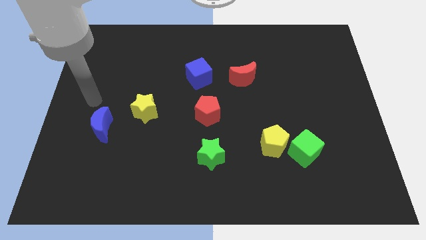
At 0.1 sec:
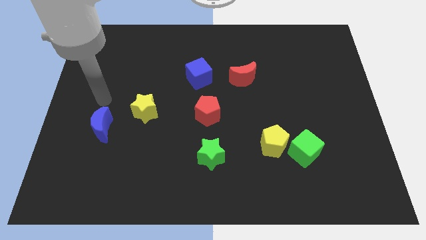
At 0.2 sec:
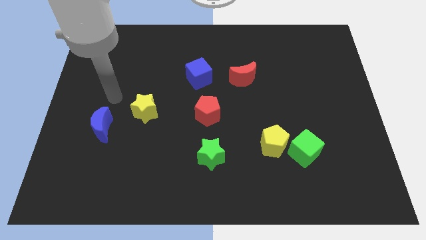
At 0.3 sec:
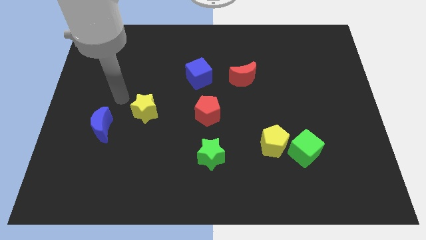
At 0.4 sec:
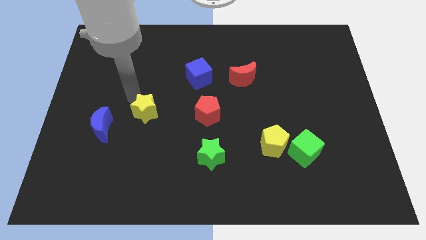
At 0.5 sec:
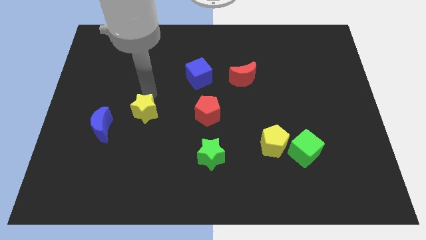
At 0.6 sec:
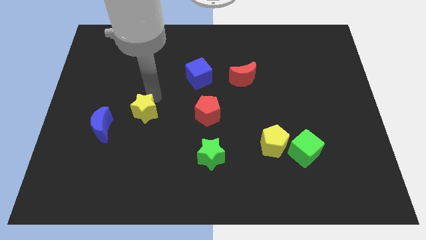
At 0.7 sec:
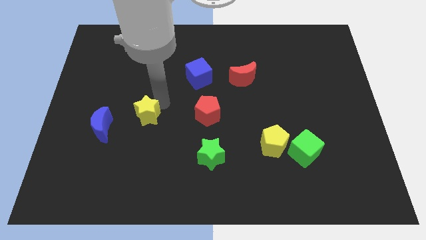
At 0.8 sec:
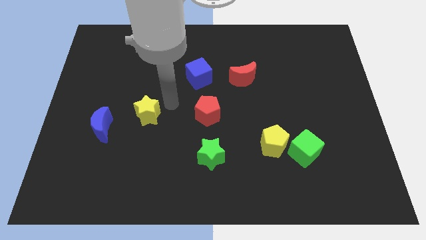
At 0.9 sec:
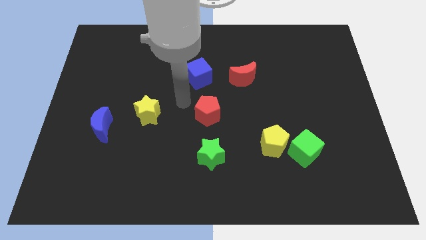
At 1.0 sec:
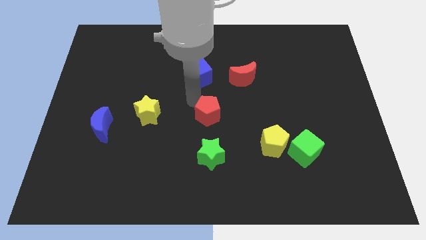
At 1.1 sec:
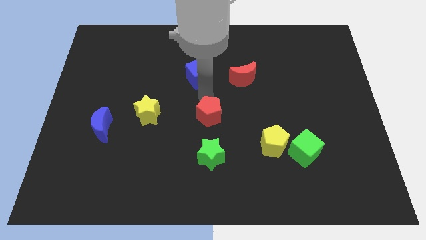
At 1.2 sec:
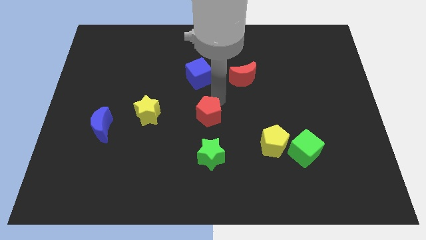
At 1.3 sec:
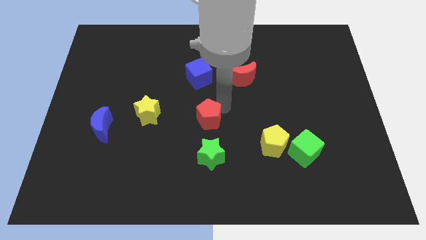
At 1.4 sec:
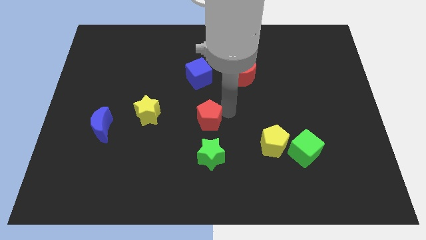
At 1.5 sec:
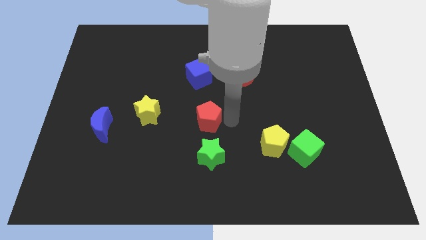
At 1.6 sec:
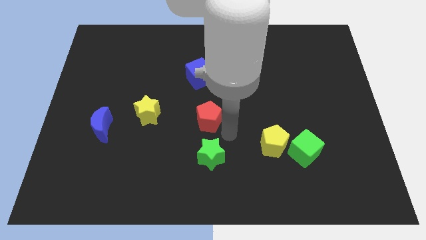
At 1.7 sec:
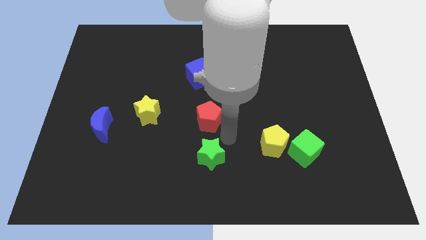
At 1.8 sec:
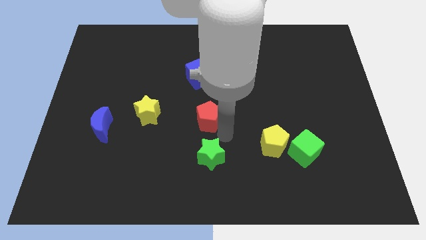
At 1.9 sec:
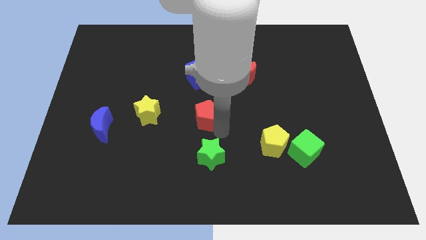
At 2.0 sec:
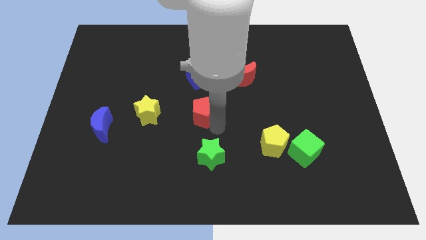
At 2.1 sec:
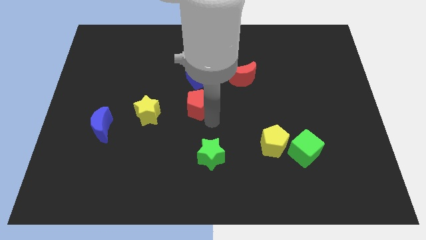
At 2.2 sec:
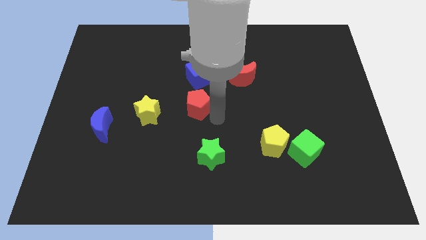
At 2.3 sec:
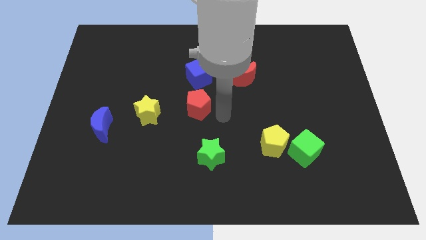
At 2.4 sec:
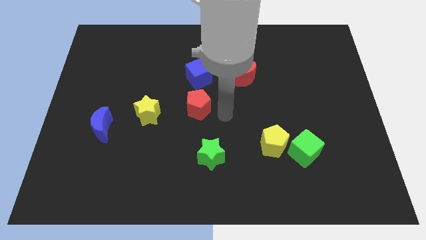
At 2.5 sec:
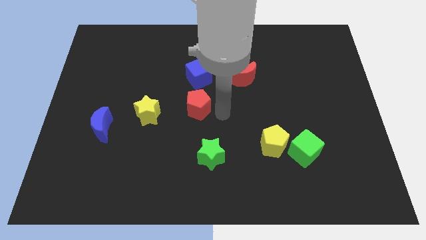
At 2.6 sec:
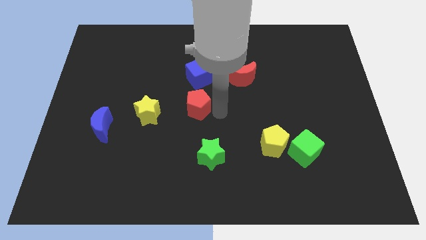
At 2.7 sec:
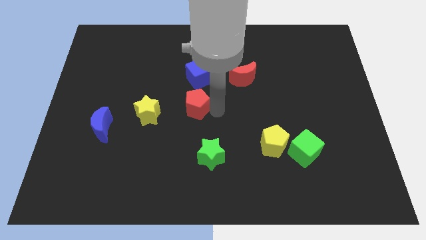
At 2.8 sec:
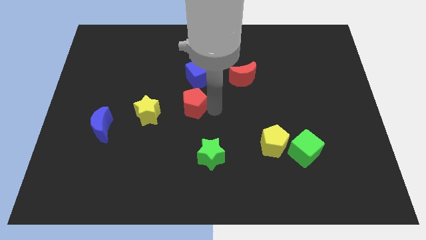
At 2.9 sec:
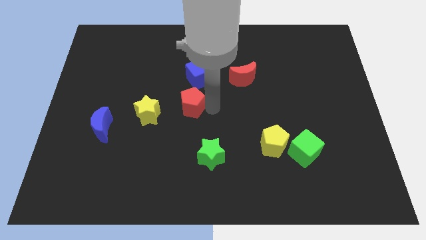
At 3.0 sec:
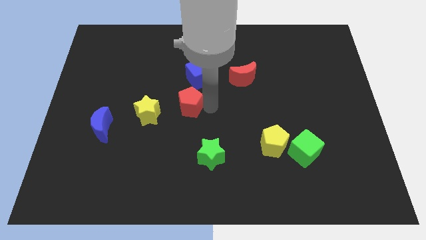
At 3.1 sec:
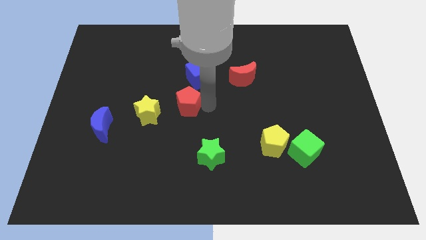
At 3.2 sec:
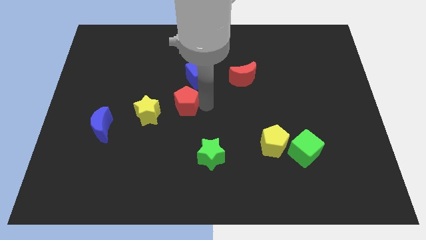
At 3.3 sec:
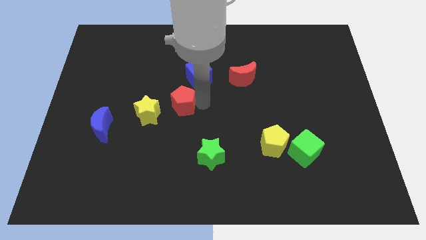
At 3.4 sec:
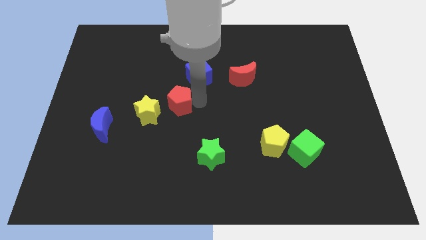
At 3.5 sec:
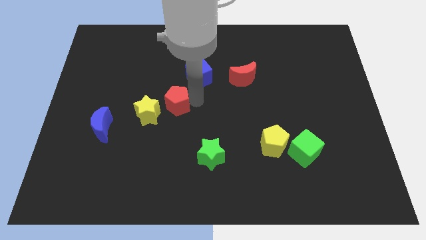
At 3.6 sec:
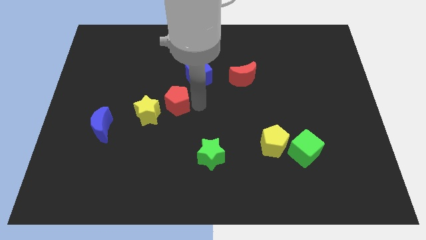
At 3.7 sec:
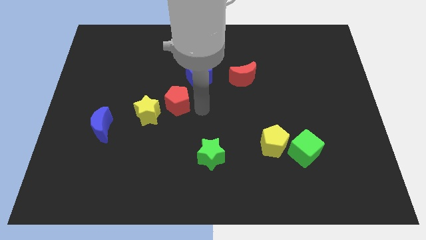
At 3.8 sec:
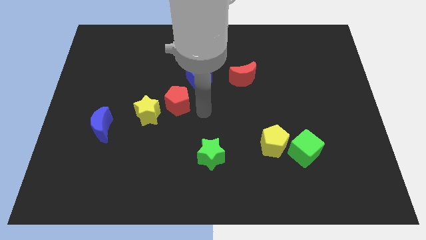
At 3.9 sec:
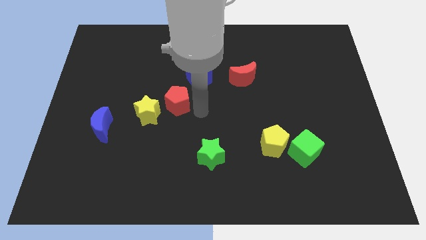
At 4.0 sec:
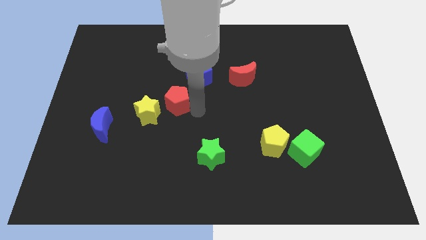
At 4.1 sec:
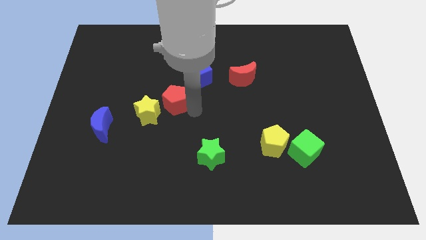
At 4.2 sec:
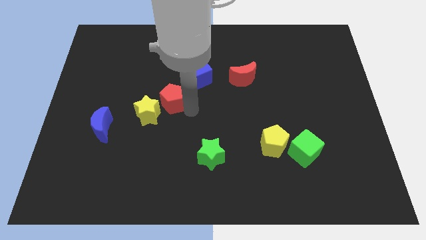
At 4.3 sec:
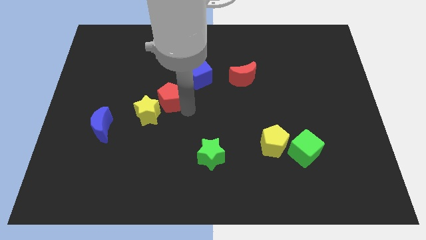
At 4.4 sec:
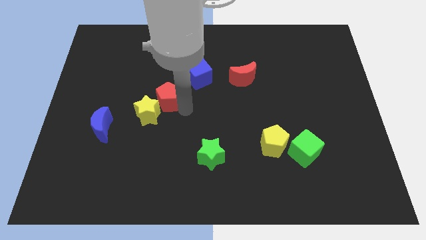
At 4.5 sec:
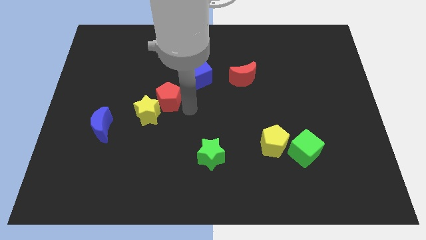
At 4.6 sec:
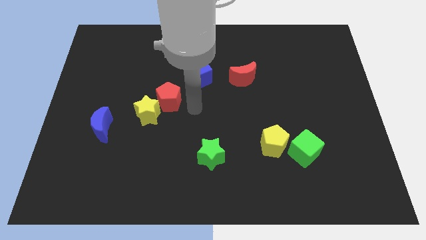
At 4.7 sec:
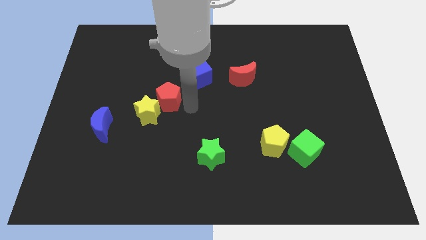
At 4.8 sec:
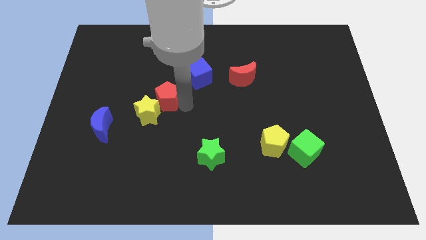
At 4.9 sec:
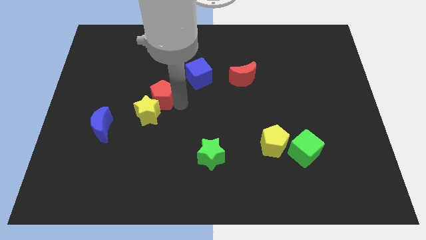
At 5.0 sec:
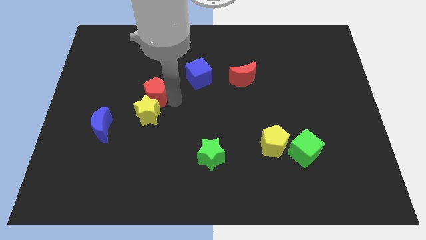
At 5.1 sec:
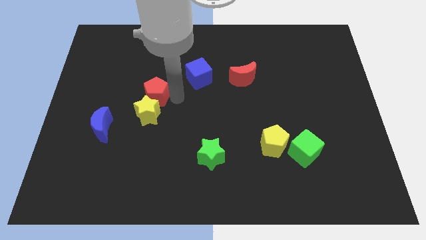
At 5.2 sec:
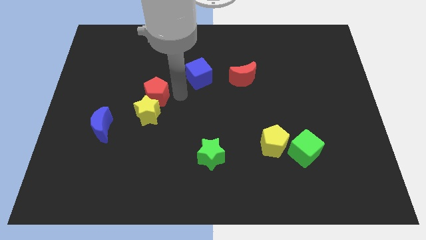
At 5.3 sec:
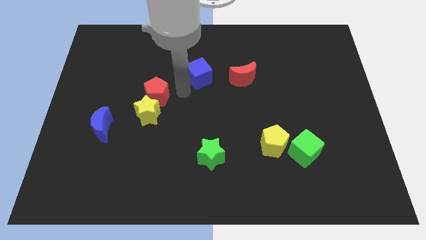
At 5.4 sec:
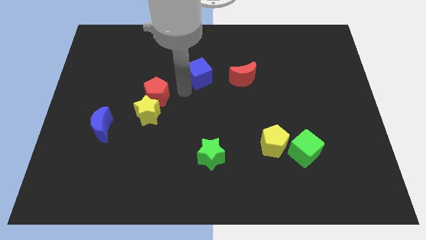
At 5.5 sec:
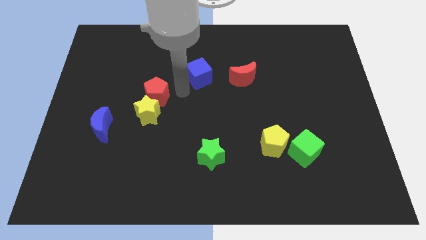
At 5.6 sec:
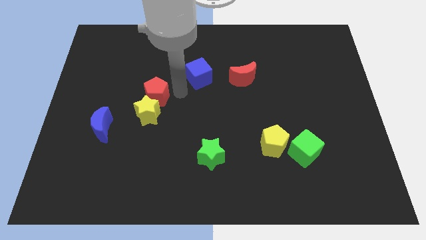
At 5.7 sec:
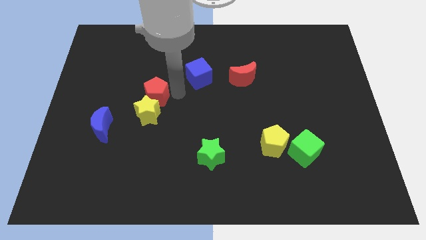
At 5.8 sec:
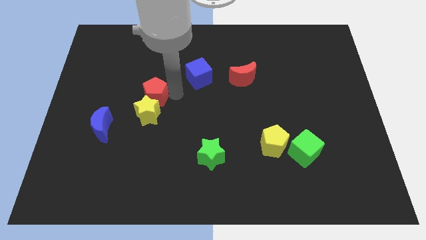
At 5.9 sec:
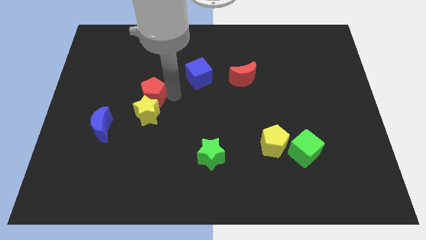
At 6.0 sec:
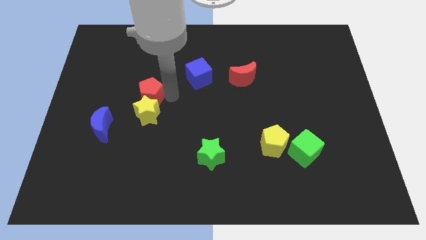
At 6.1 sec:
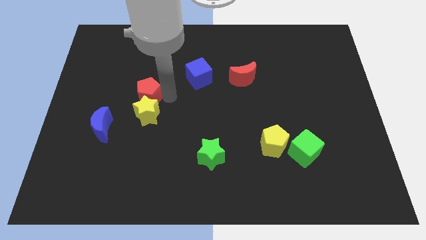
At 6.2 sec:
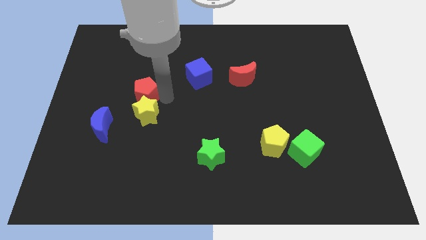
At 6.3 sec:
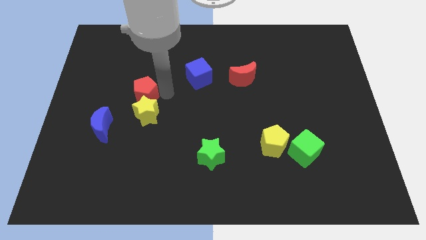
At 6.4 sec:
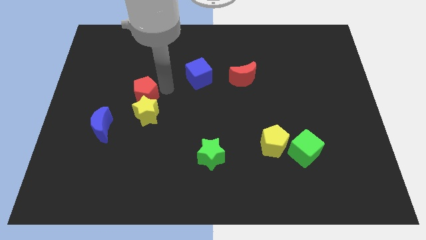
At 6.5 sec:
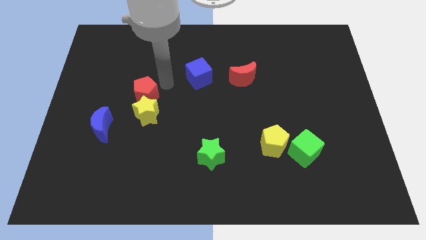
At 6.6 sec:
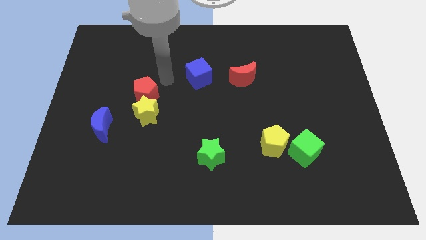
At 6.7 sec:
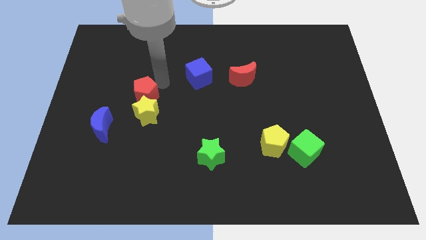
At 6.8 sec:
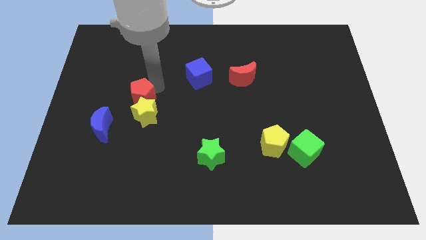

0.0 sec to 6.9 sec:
push the red pentagon to the top right side of the blue moon

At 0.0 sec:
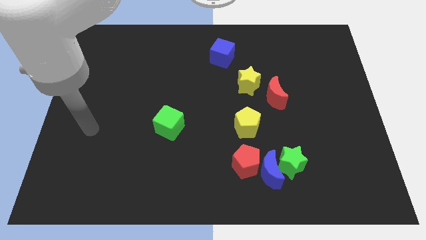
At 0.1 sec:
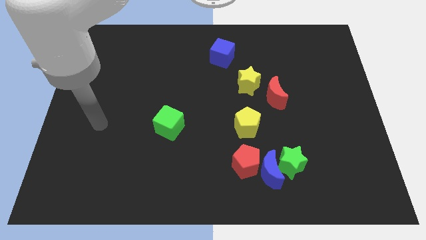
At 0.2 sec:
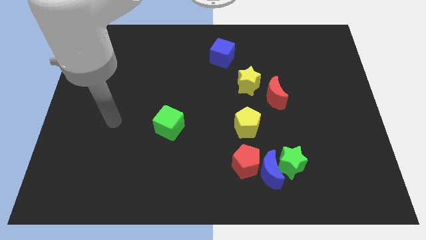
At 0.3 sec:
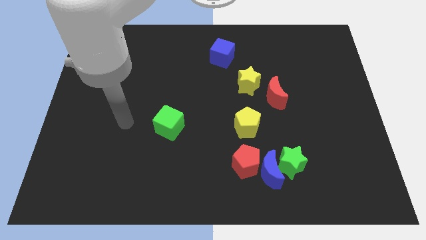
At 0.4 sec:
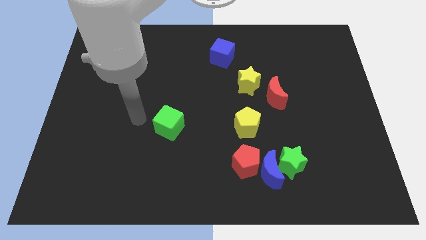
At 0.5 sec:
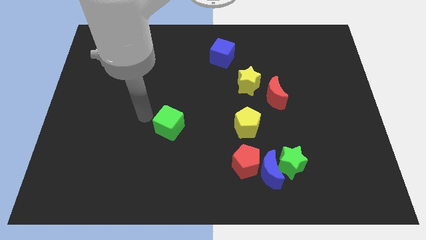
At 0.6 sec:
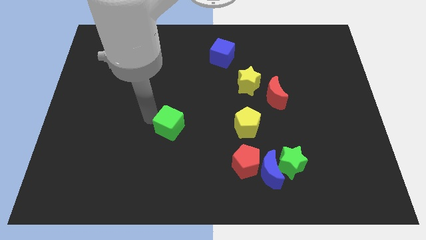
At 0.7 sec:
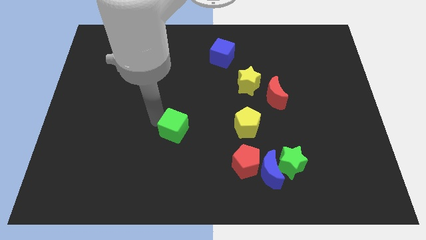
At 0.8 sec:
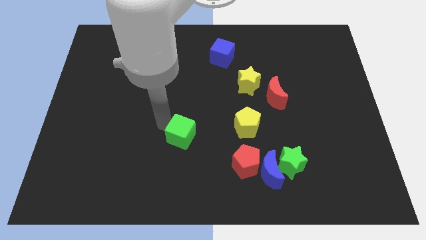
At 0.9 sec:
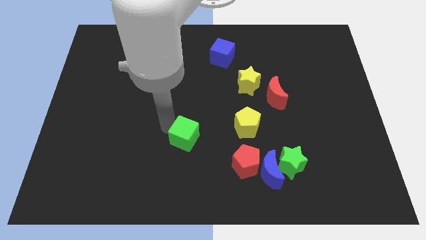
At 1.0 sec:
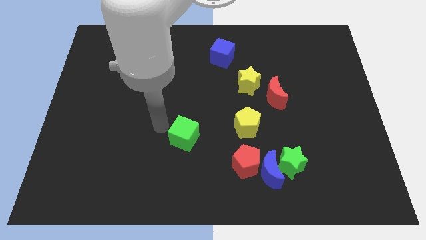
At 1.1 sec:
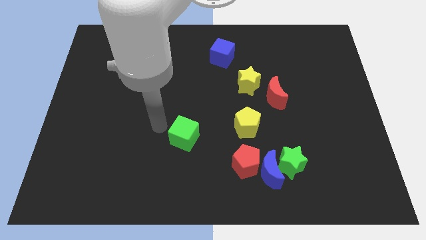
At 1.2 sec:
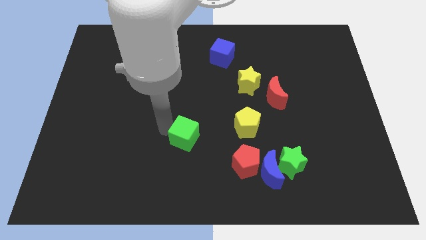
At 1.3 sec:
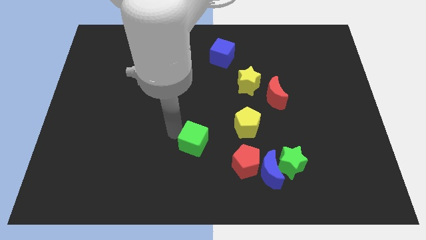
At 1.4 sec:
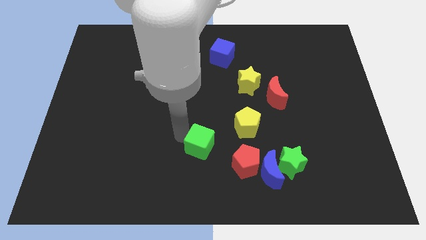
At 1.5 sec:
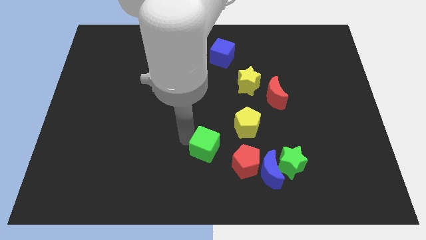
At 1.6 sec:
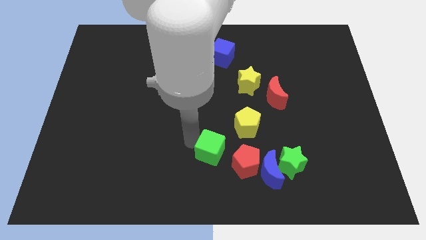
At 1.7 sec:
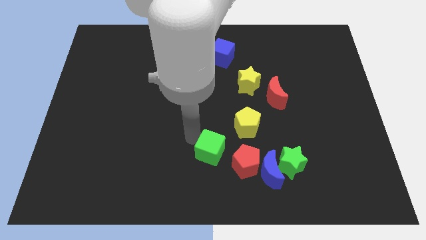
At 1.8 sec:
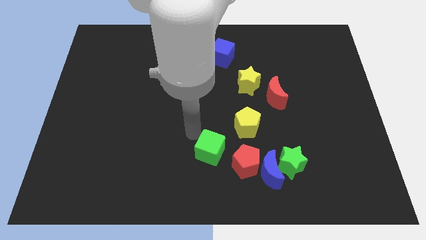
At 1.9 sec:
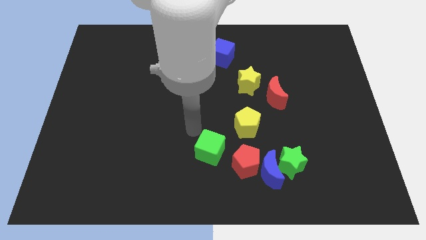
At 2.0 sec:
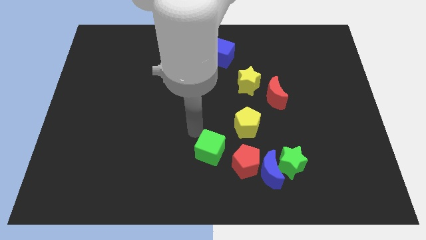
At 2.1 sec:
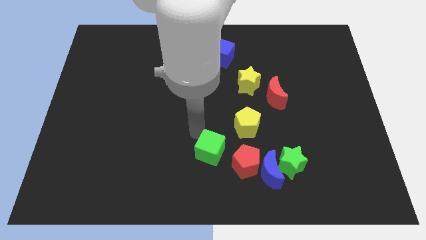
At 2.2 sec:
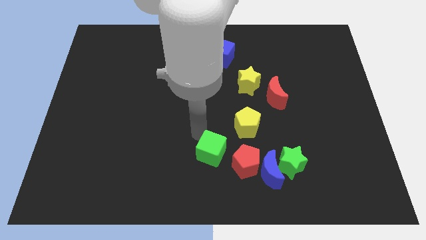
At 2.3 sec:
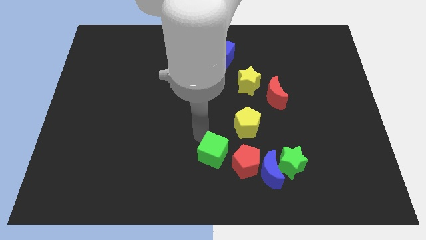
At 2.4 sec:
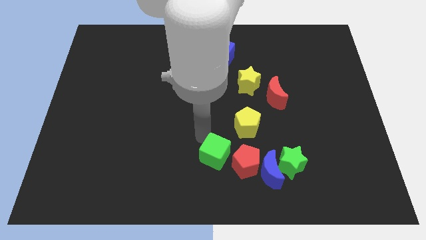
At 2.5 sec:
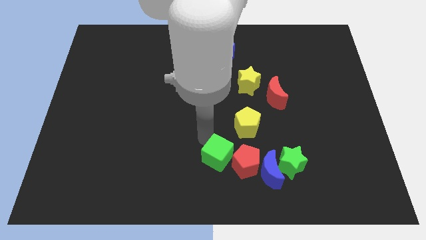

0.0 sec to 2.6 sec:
slide the green cube to the left side of the green star
